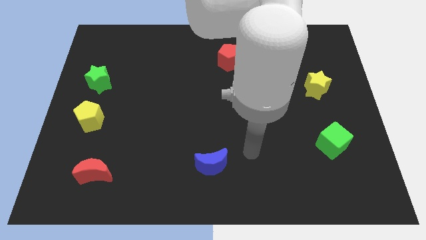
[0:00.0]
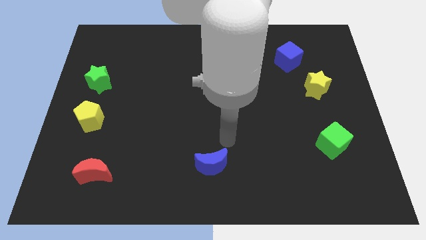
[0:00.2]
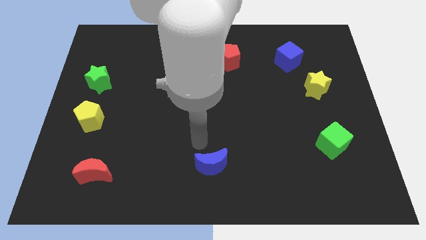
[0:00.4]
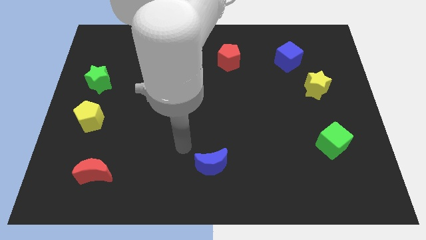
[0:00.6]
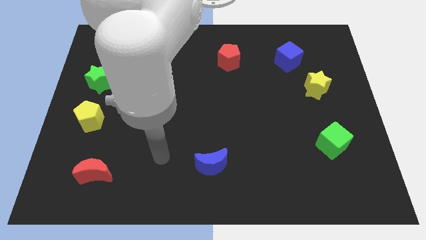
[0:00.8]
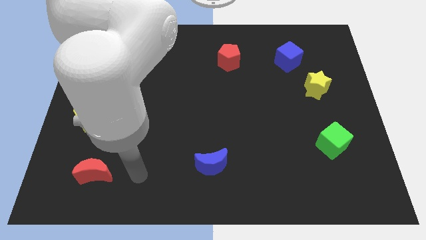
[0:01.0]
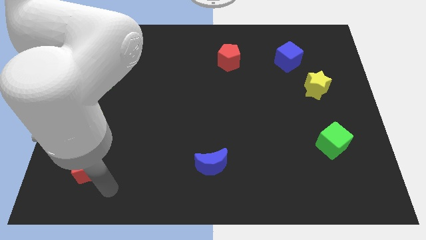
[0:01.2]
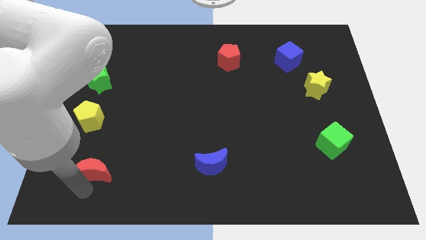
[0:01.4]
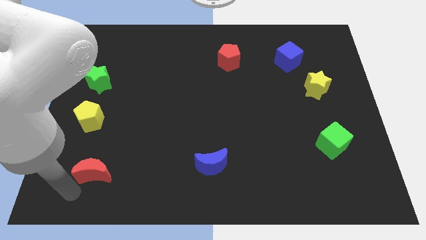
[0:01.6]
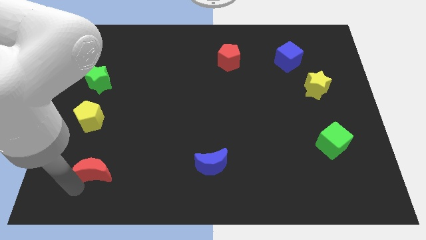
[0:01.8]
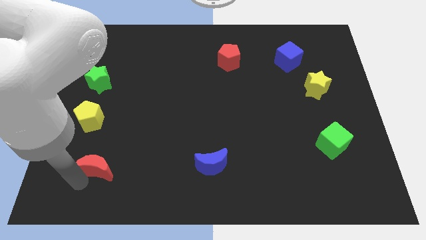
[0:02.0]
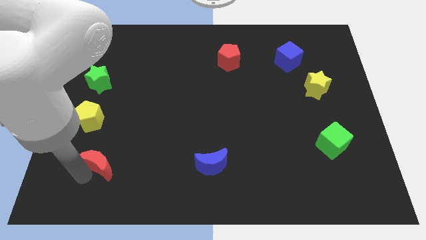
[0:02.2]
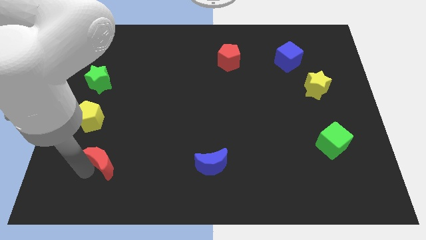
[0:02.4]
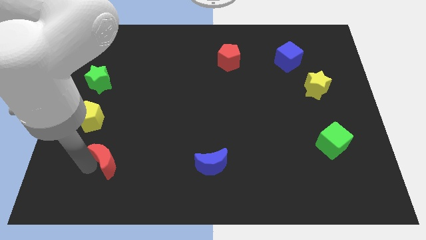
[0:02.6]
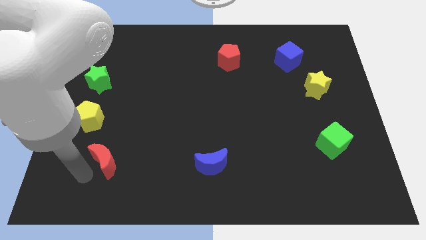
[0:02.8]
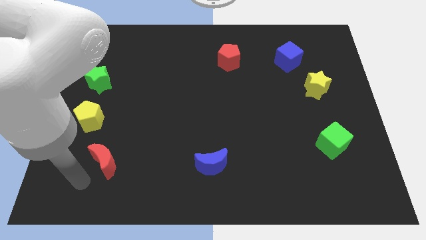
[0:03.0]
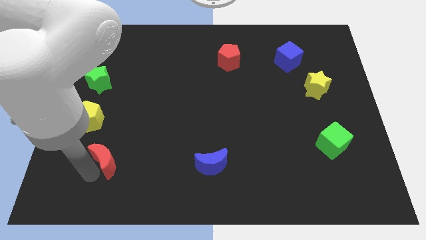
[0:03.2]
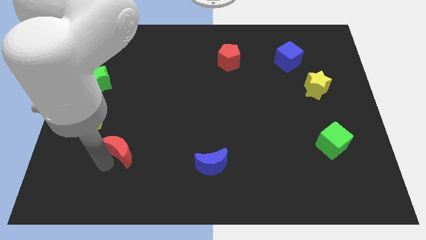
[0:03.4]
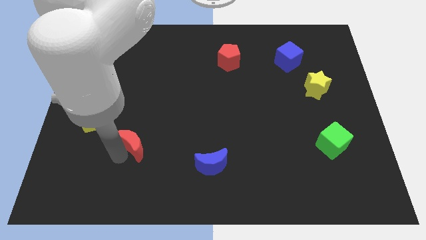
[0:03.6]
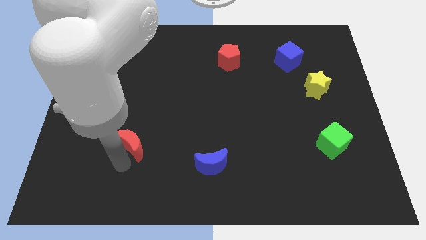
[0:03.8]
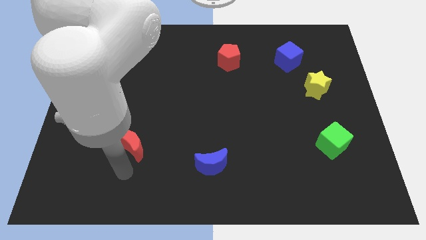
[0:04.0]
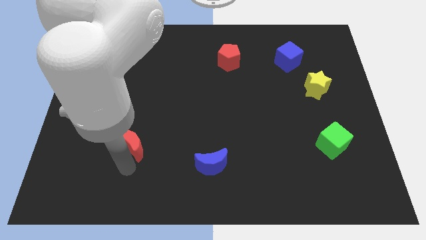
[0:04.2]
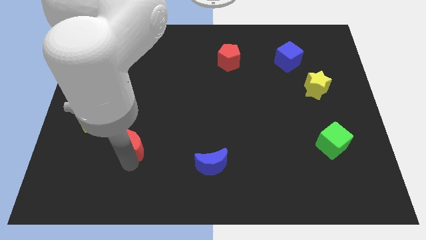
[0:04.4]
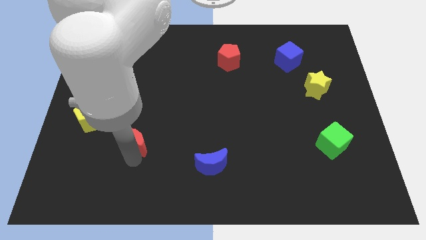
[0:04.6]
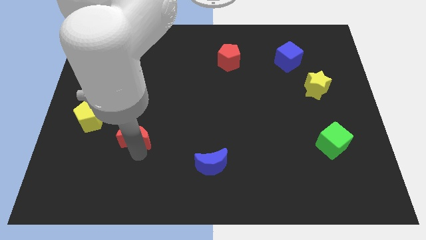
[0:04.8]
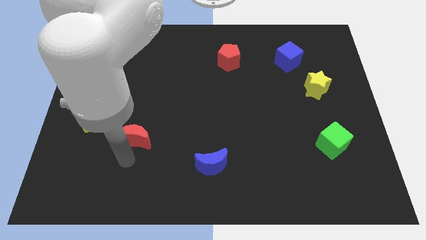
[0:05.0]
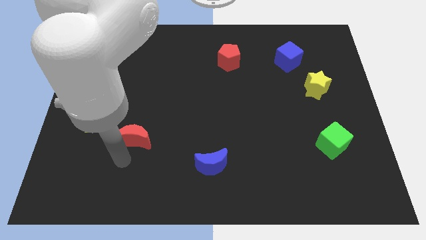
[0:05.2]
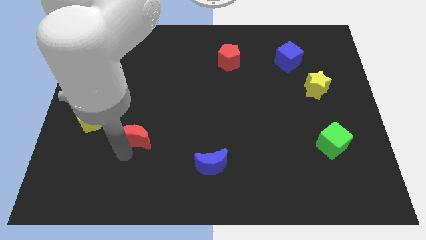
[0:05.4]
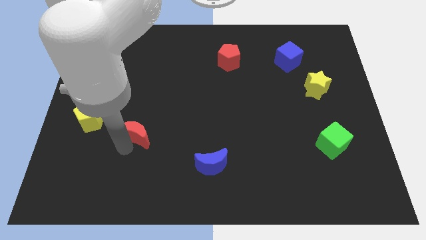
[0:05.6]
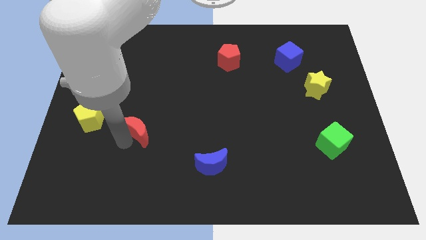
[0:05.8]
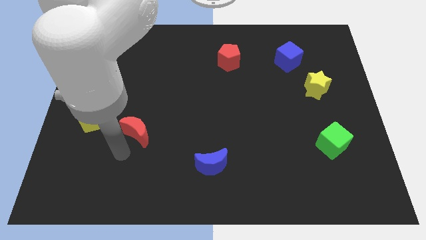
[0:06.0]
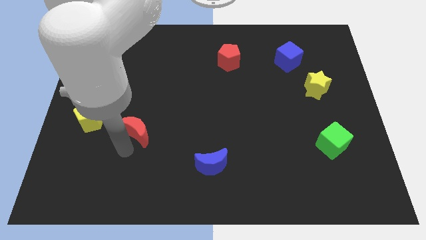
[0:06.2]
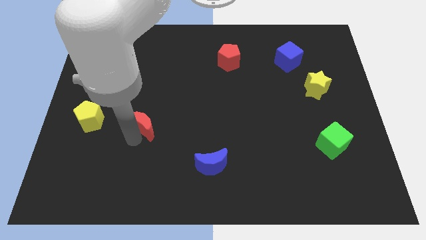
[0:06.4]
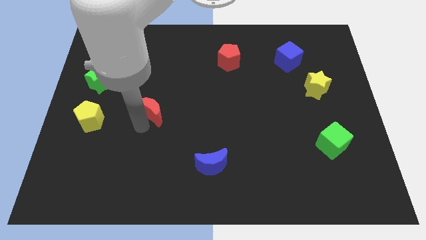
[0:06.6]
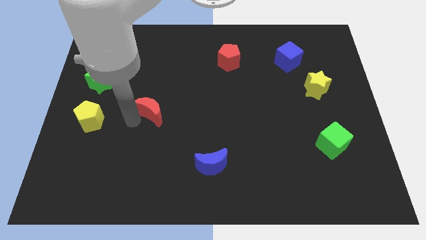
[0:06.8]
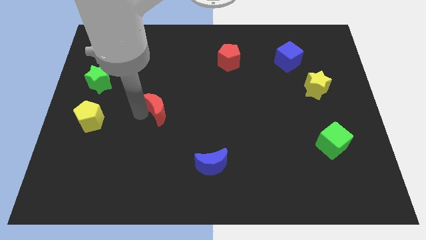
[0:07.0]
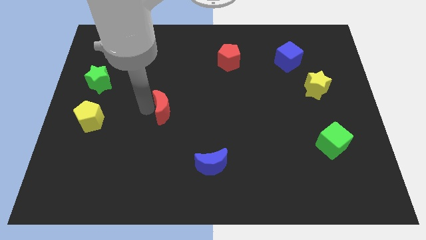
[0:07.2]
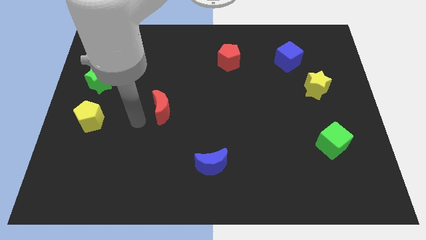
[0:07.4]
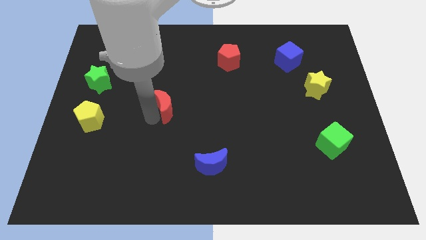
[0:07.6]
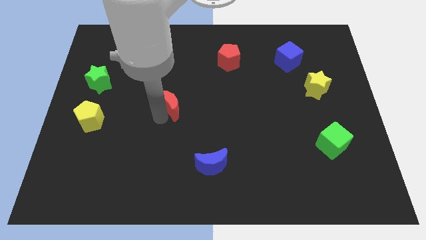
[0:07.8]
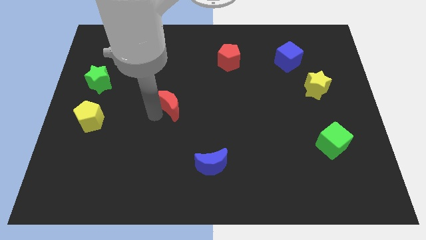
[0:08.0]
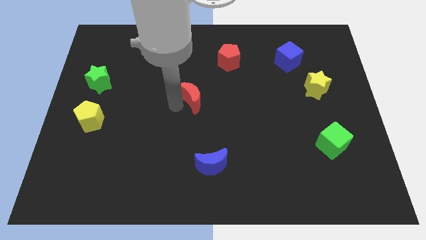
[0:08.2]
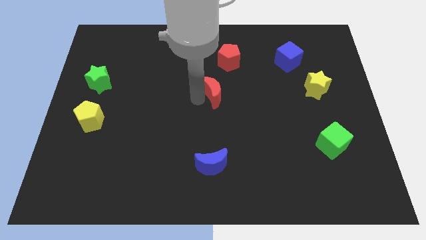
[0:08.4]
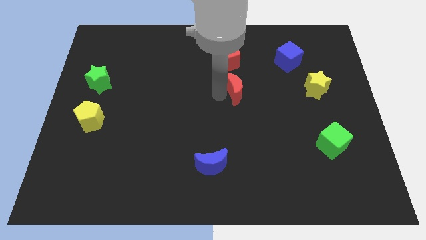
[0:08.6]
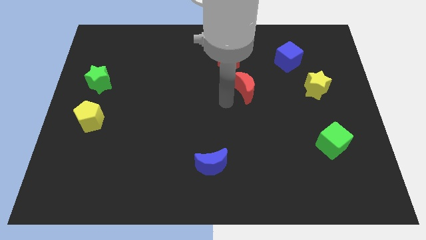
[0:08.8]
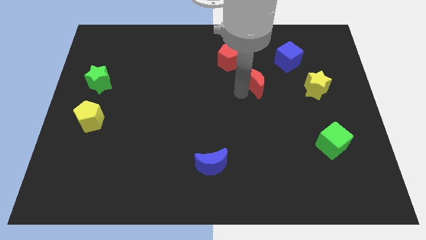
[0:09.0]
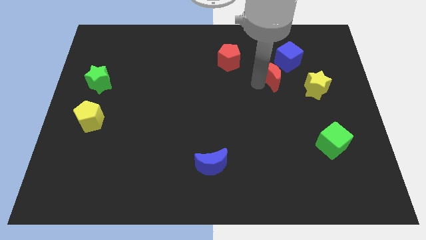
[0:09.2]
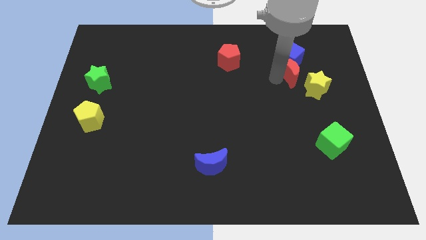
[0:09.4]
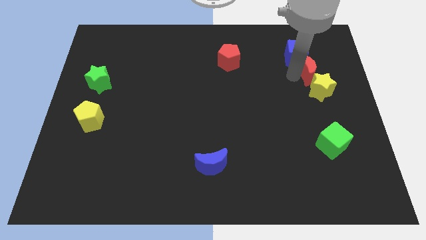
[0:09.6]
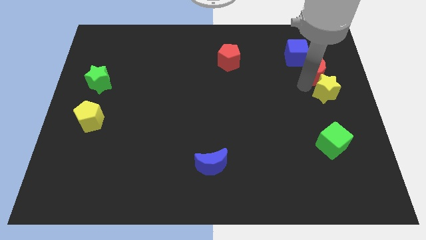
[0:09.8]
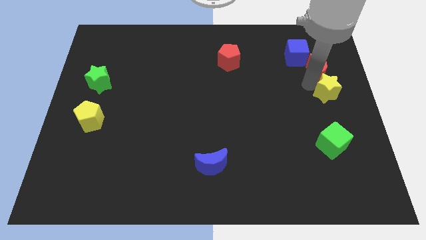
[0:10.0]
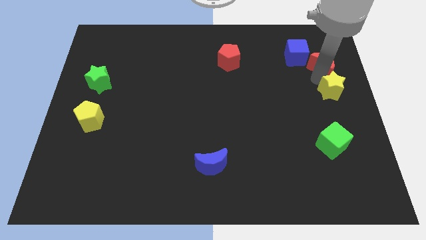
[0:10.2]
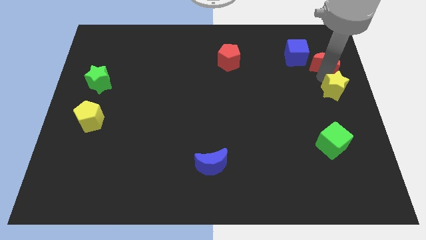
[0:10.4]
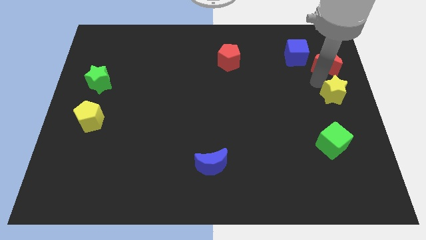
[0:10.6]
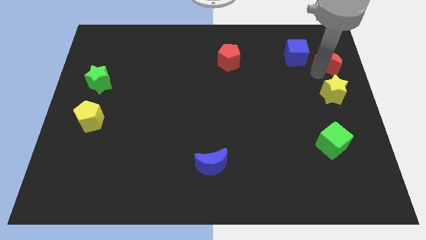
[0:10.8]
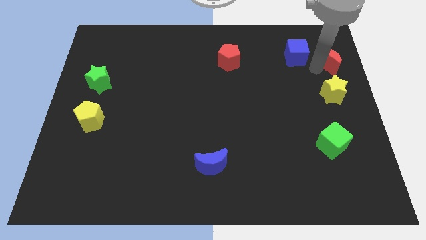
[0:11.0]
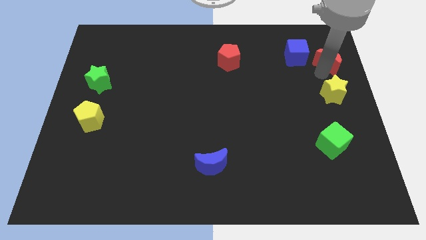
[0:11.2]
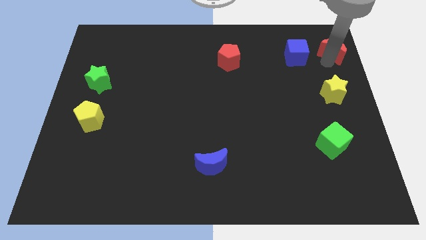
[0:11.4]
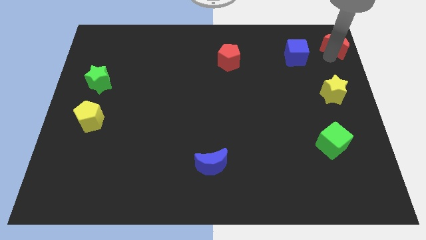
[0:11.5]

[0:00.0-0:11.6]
move the red moon to the top right

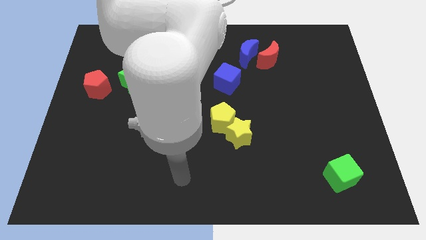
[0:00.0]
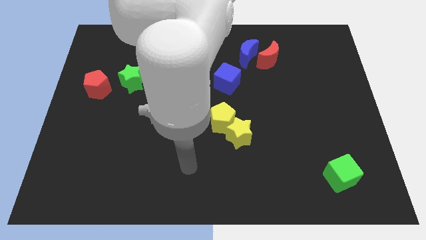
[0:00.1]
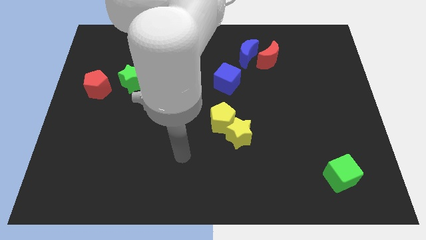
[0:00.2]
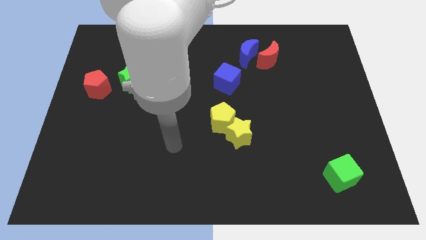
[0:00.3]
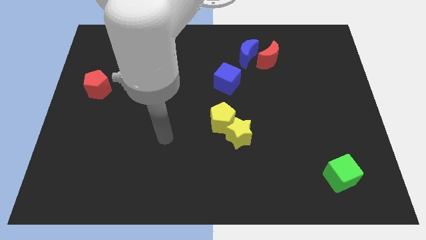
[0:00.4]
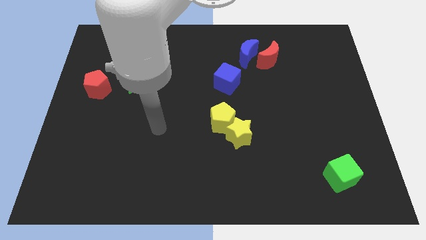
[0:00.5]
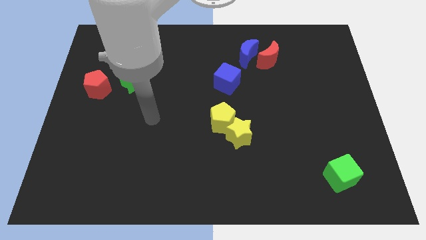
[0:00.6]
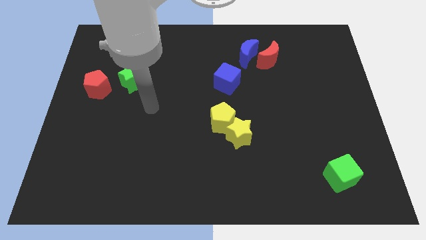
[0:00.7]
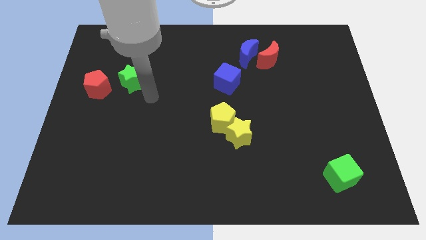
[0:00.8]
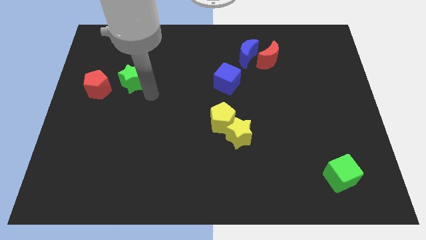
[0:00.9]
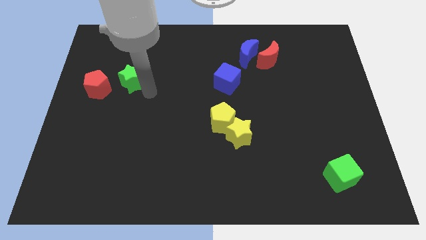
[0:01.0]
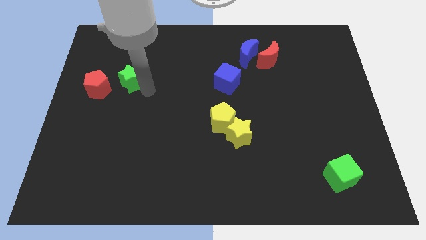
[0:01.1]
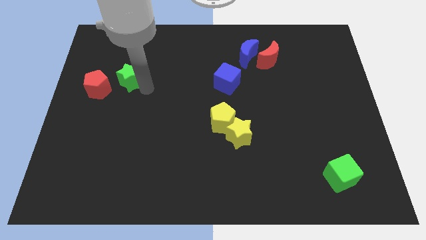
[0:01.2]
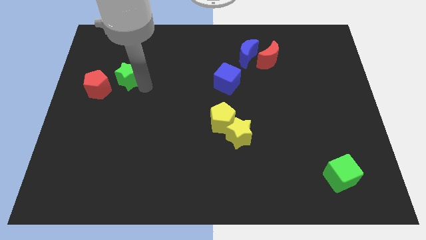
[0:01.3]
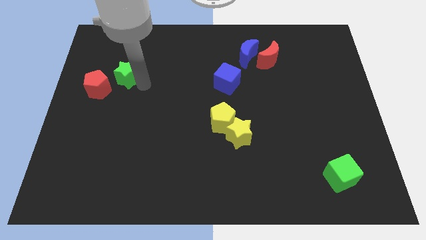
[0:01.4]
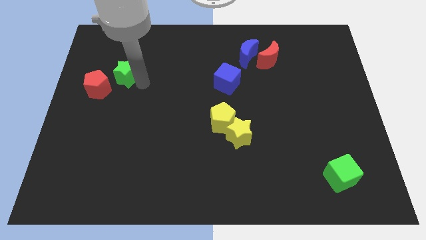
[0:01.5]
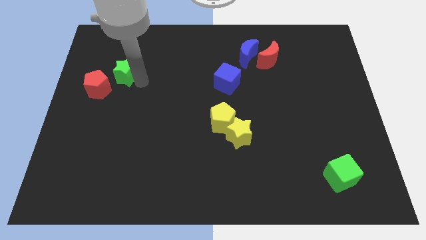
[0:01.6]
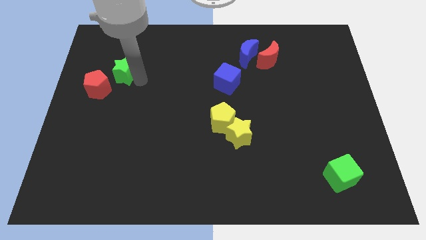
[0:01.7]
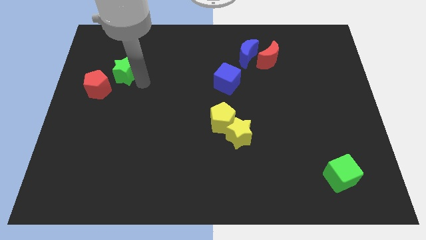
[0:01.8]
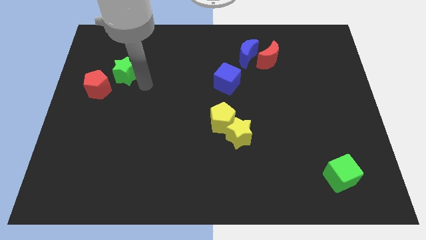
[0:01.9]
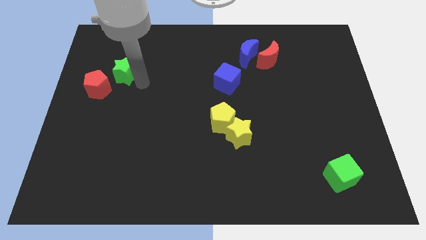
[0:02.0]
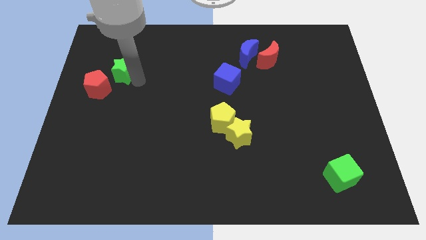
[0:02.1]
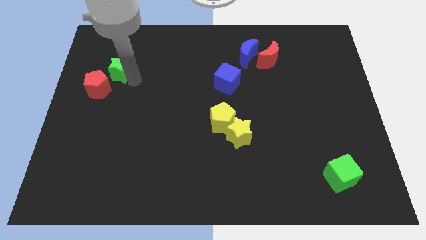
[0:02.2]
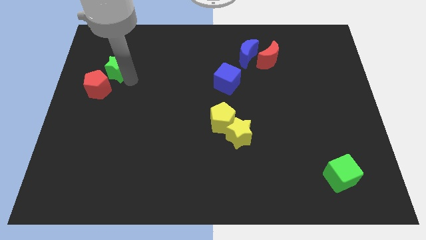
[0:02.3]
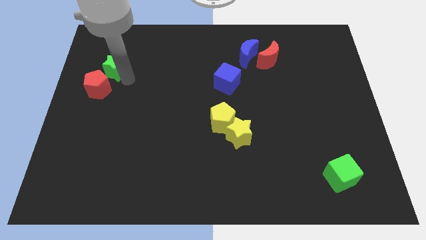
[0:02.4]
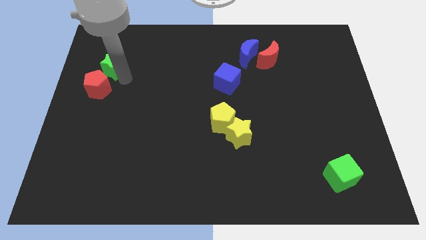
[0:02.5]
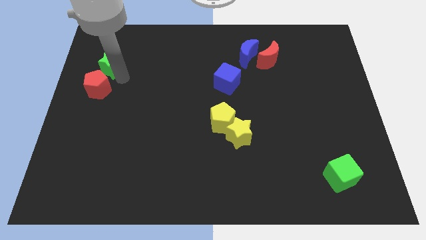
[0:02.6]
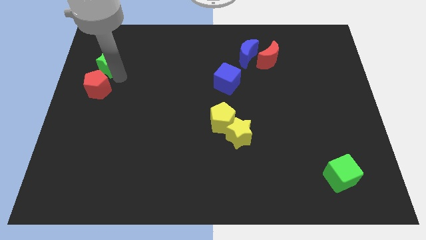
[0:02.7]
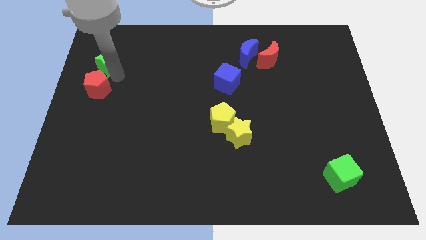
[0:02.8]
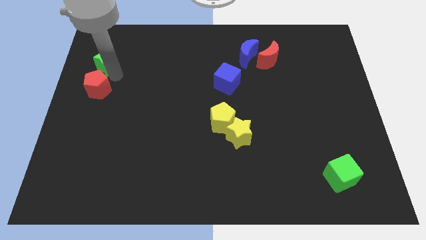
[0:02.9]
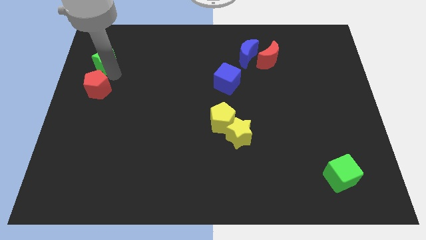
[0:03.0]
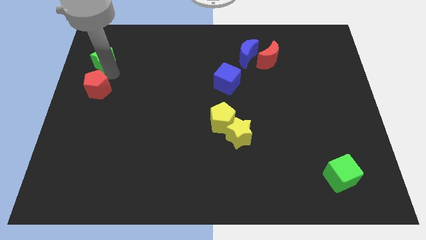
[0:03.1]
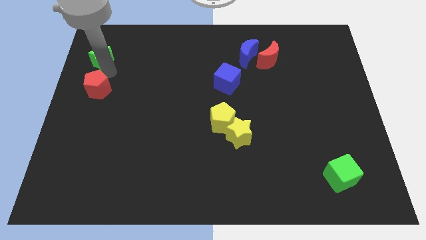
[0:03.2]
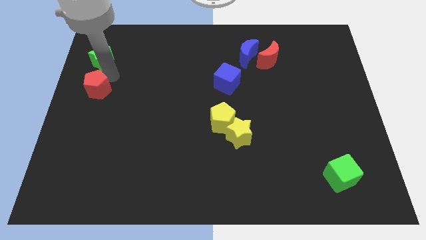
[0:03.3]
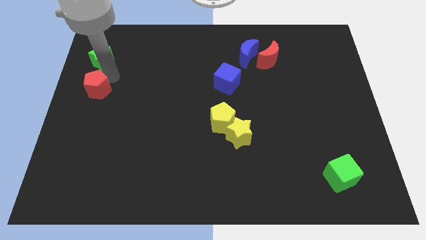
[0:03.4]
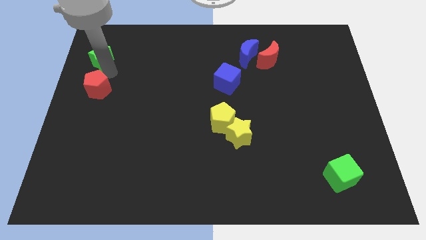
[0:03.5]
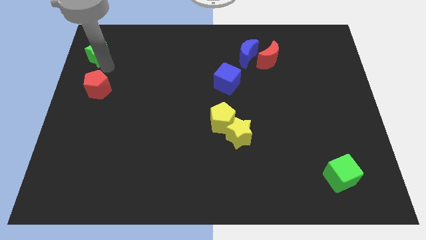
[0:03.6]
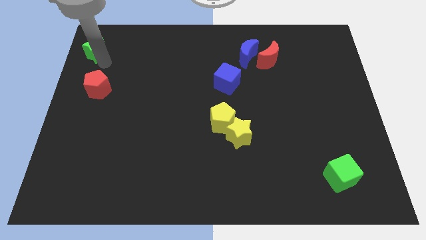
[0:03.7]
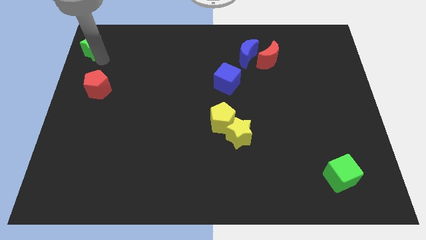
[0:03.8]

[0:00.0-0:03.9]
put the green star to the upper left corner
